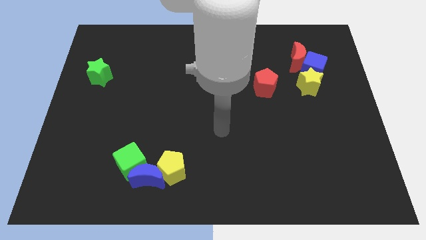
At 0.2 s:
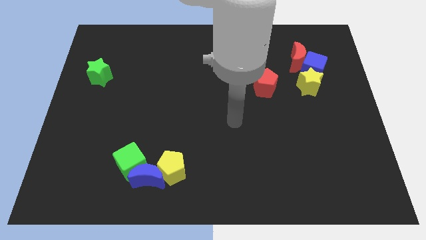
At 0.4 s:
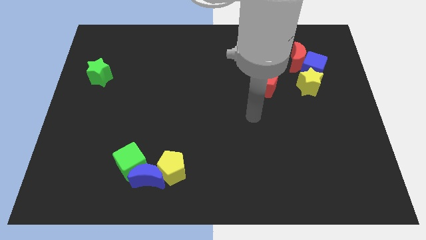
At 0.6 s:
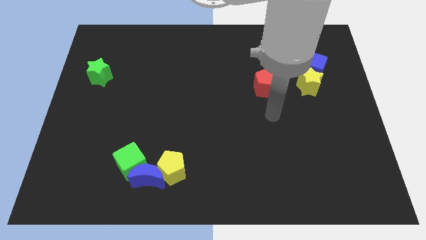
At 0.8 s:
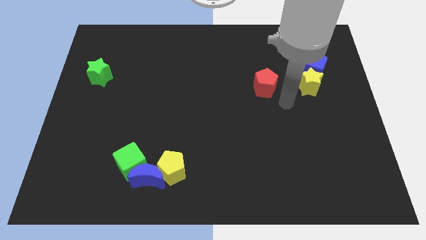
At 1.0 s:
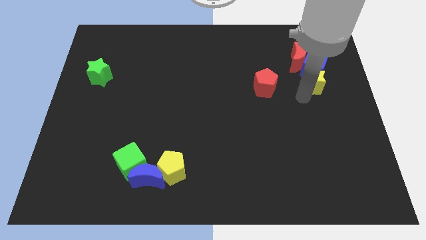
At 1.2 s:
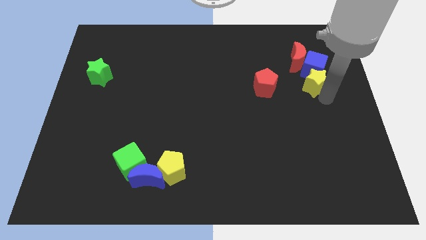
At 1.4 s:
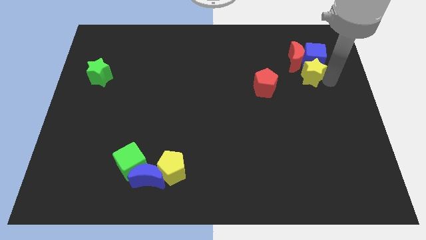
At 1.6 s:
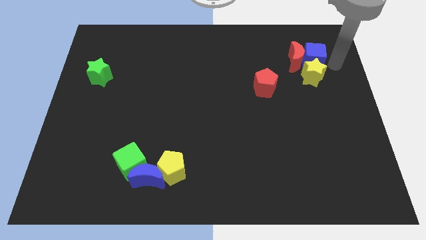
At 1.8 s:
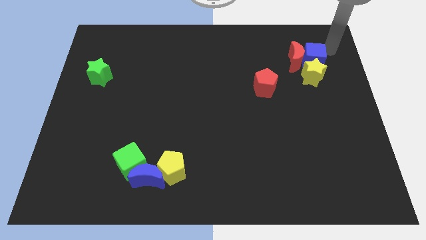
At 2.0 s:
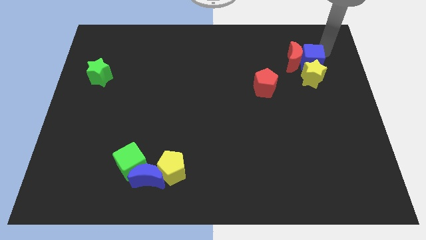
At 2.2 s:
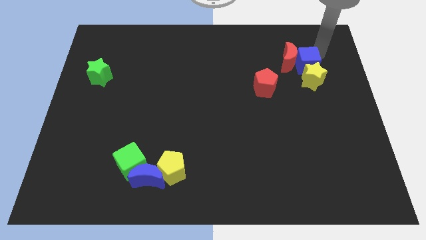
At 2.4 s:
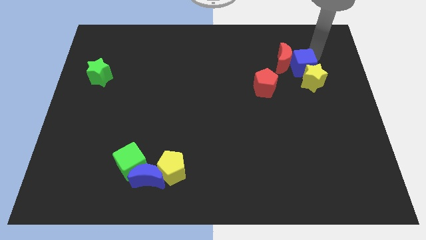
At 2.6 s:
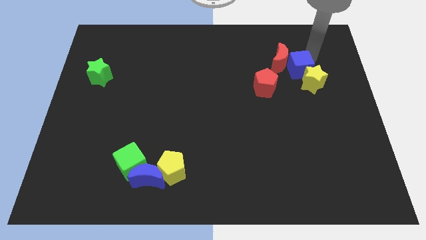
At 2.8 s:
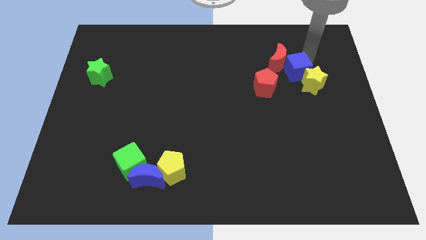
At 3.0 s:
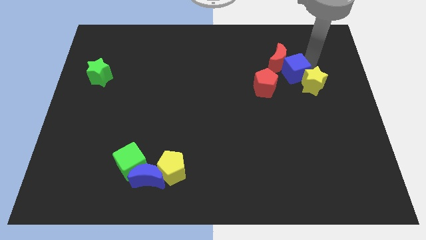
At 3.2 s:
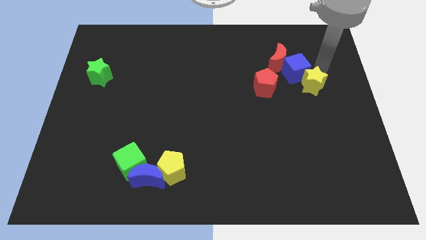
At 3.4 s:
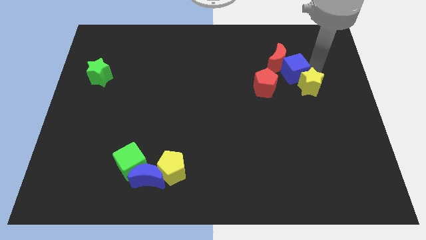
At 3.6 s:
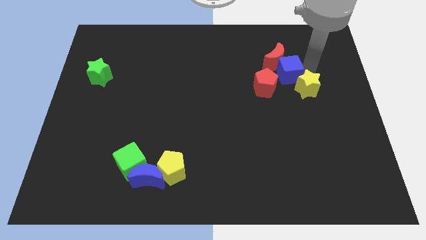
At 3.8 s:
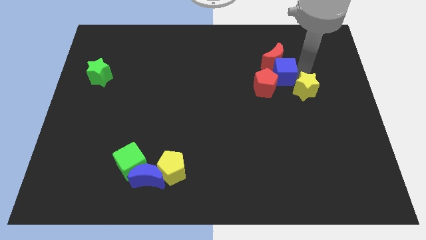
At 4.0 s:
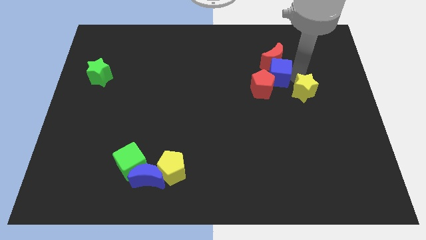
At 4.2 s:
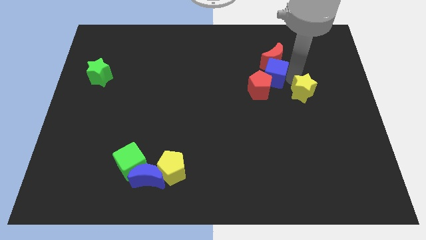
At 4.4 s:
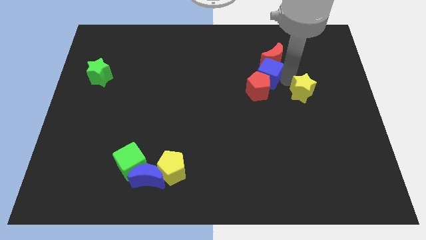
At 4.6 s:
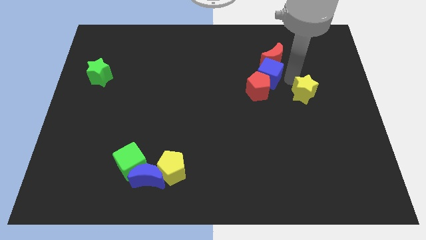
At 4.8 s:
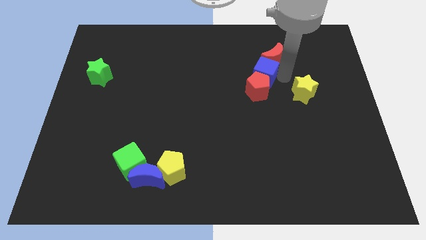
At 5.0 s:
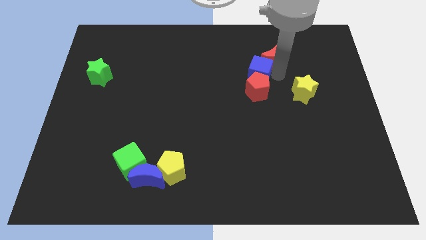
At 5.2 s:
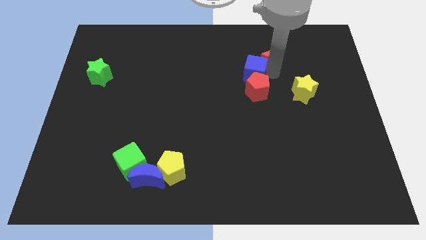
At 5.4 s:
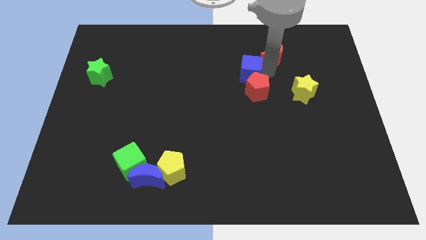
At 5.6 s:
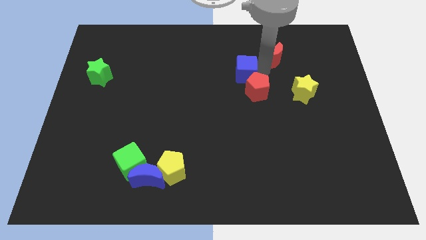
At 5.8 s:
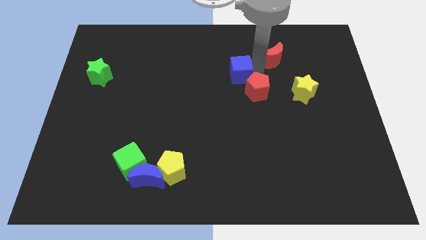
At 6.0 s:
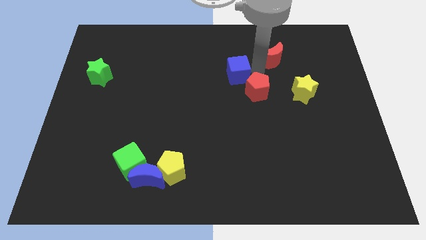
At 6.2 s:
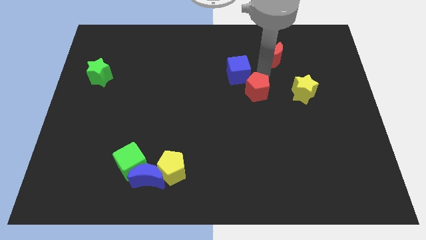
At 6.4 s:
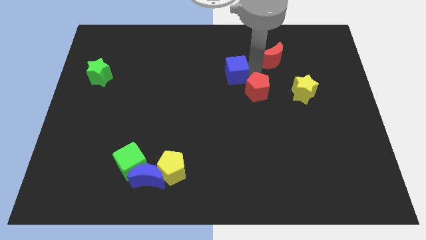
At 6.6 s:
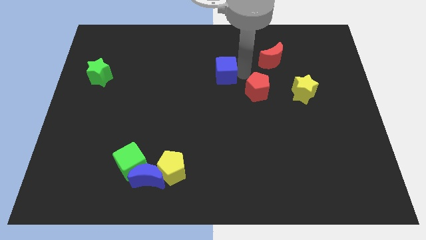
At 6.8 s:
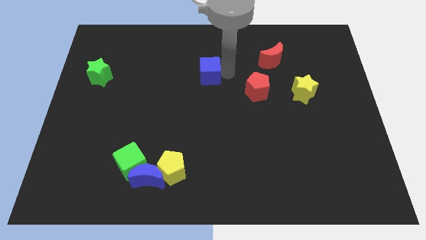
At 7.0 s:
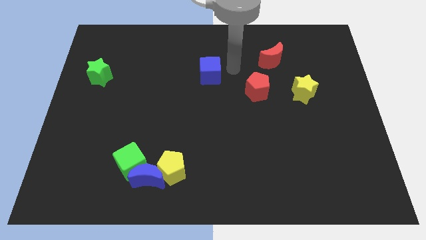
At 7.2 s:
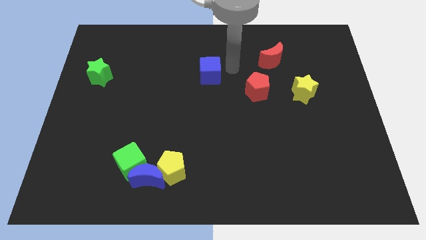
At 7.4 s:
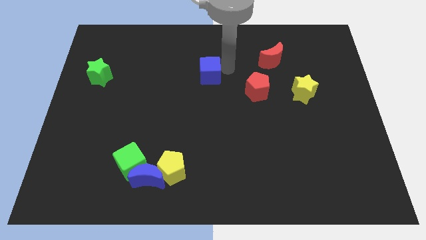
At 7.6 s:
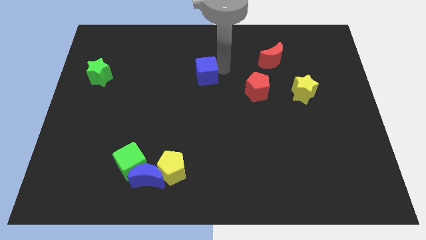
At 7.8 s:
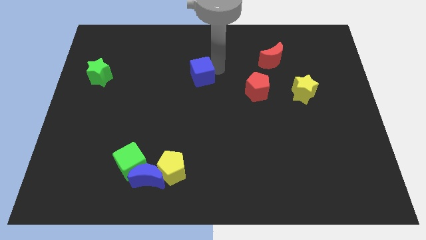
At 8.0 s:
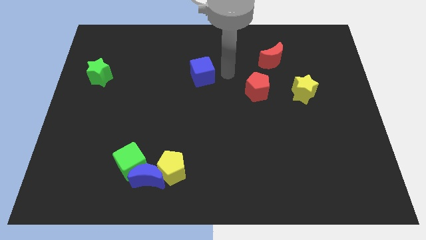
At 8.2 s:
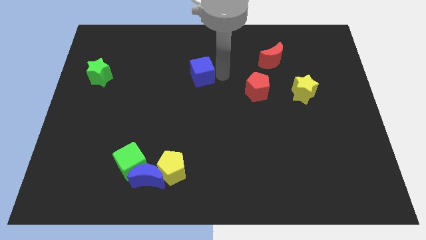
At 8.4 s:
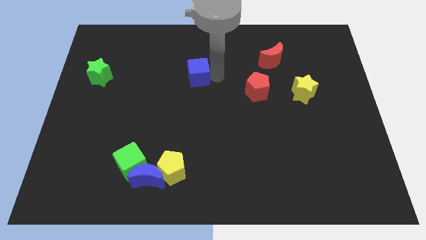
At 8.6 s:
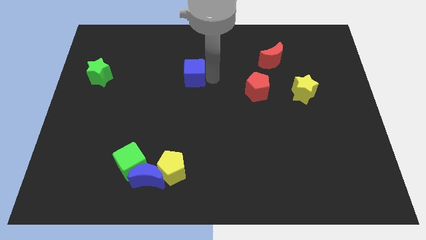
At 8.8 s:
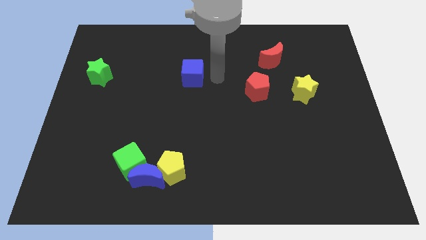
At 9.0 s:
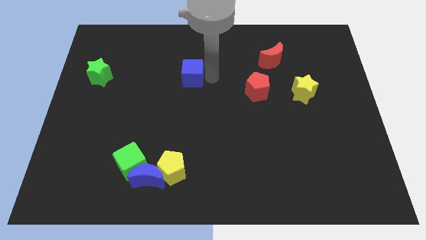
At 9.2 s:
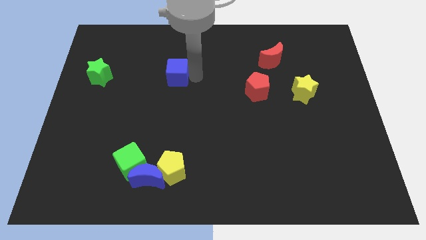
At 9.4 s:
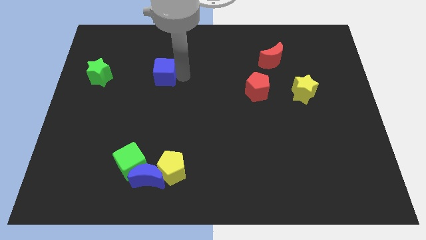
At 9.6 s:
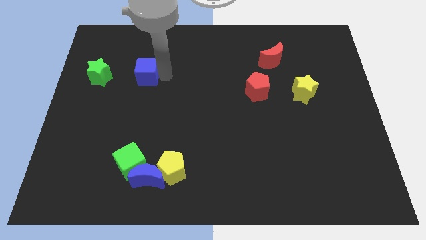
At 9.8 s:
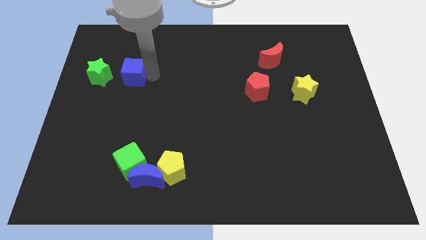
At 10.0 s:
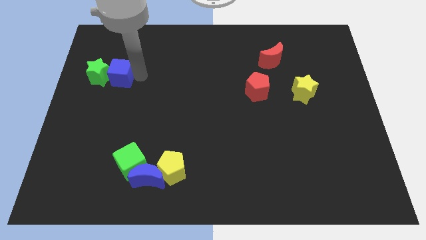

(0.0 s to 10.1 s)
put the blue cube next to the green star

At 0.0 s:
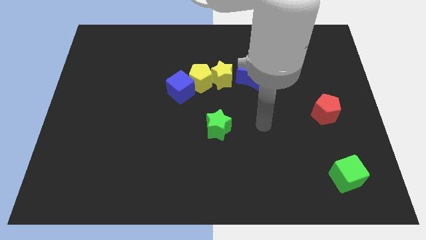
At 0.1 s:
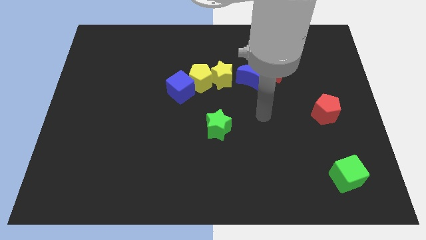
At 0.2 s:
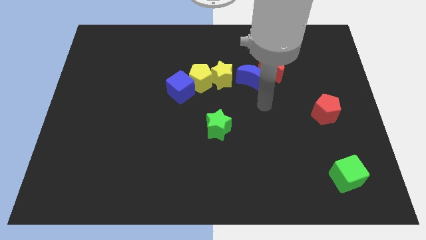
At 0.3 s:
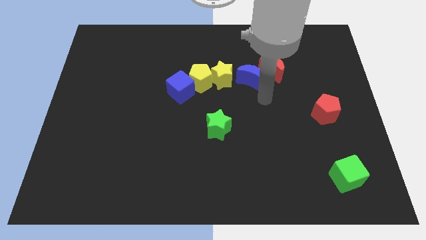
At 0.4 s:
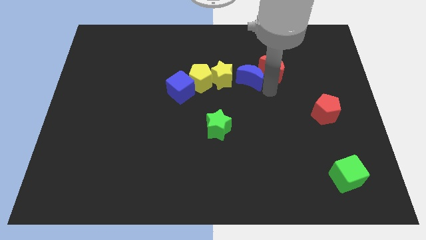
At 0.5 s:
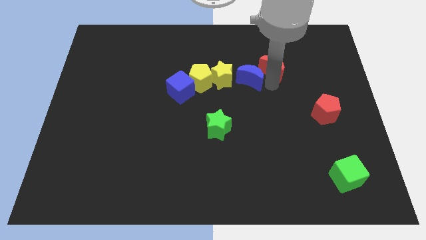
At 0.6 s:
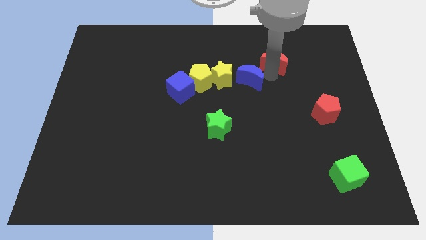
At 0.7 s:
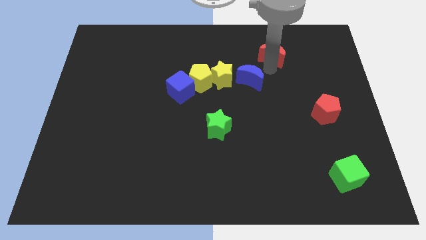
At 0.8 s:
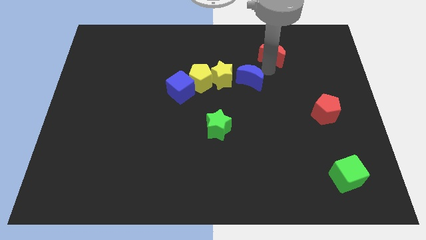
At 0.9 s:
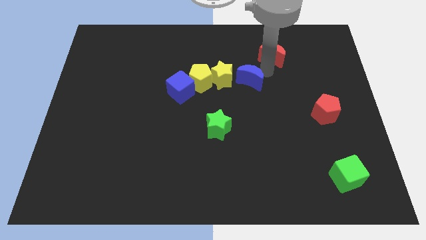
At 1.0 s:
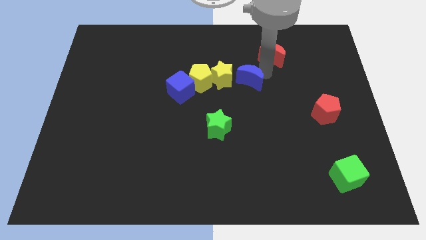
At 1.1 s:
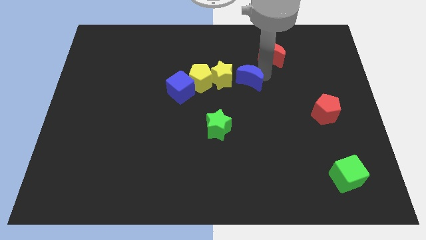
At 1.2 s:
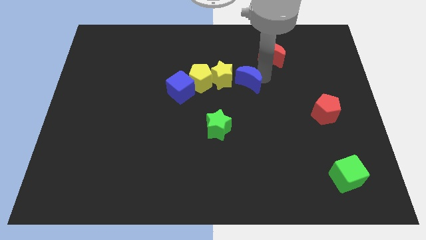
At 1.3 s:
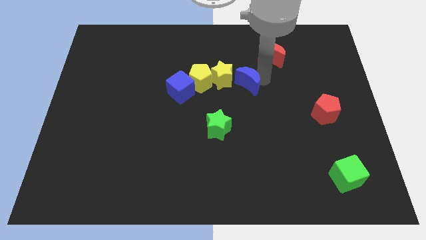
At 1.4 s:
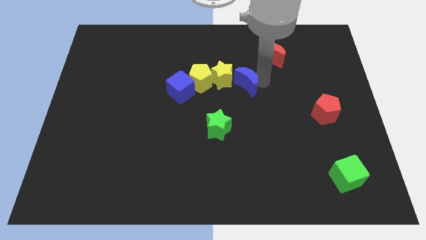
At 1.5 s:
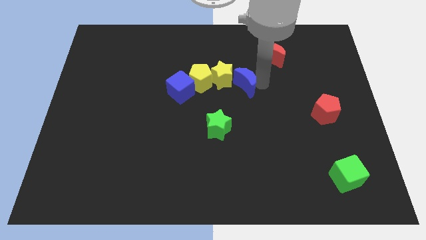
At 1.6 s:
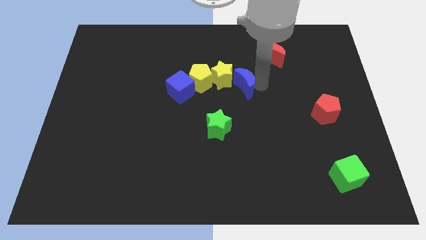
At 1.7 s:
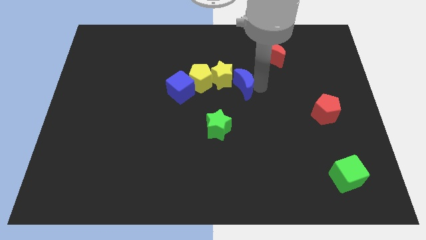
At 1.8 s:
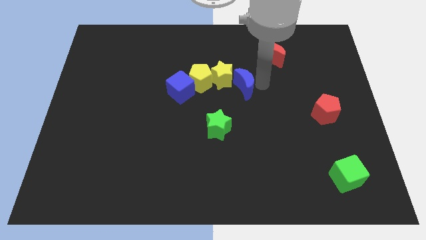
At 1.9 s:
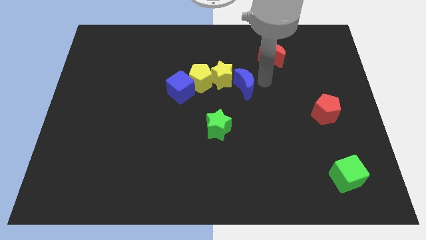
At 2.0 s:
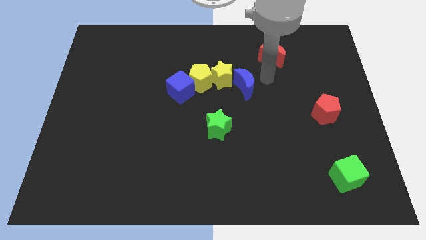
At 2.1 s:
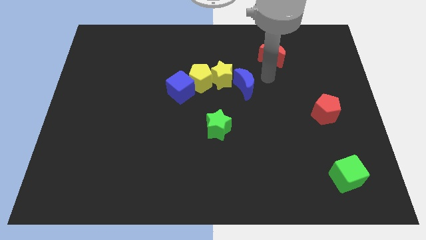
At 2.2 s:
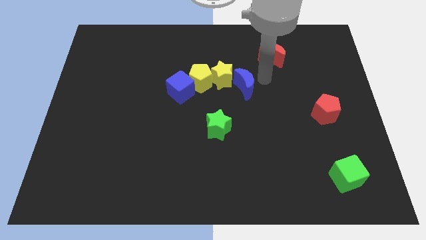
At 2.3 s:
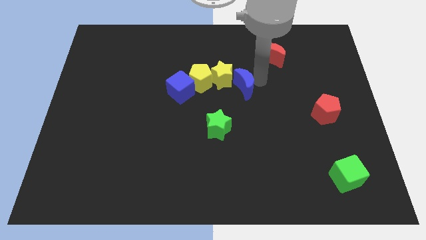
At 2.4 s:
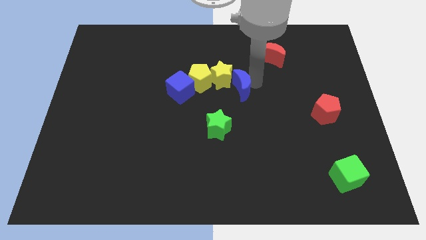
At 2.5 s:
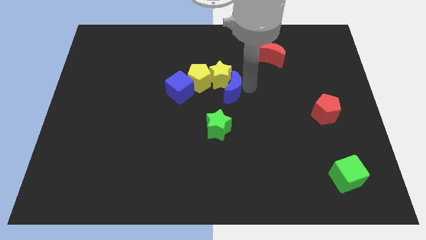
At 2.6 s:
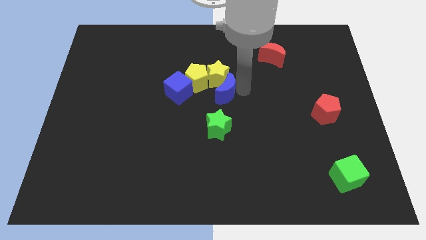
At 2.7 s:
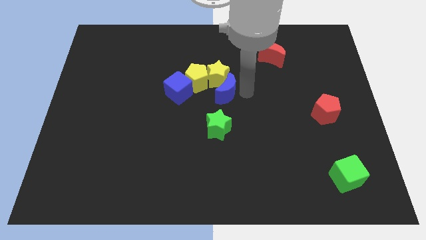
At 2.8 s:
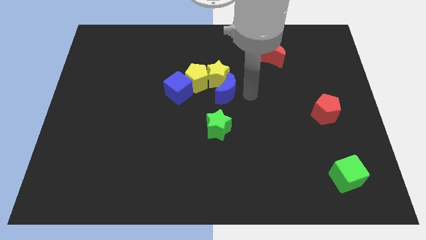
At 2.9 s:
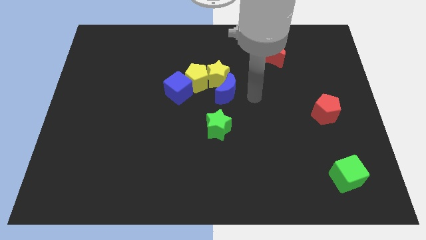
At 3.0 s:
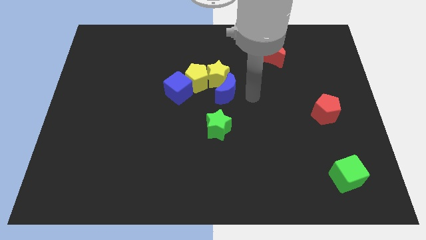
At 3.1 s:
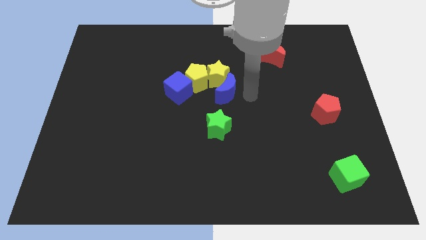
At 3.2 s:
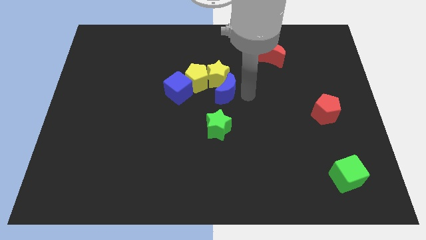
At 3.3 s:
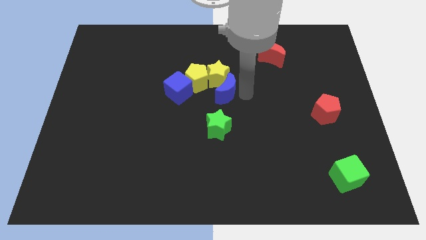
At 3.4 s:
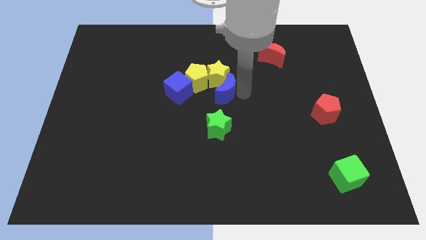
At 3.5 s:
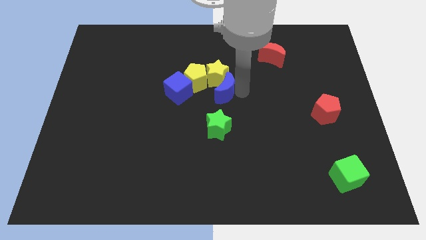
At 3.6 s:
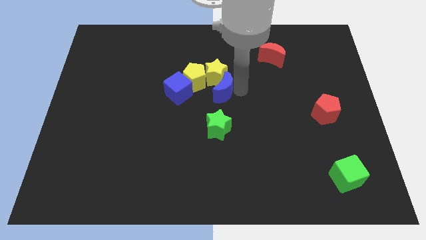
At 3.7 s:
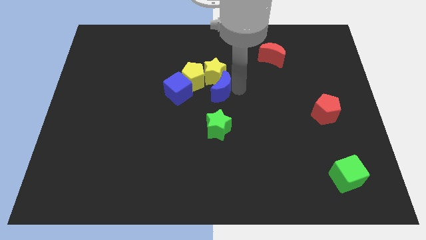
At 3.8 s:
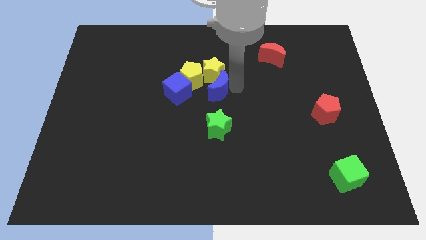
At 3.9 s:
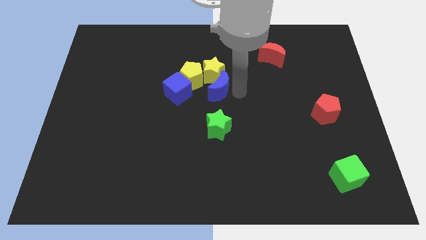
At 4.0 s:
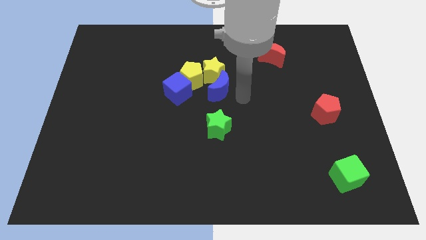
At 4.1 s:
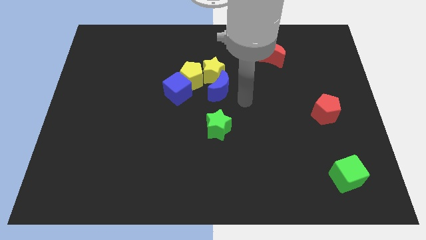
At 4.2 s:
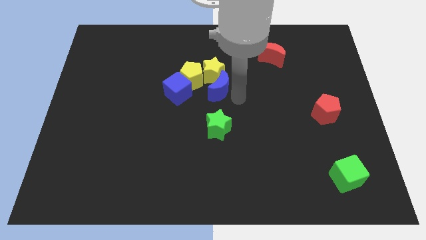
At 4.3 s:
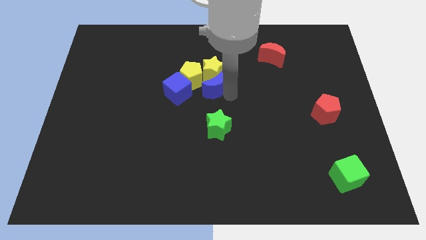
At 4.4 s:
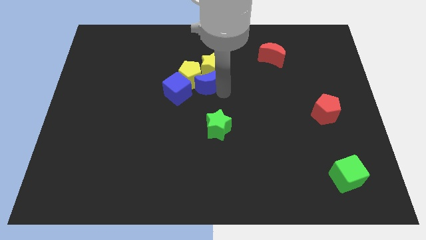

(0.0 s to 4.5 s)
put the blue moon next to the yellow pentagon
